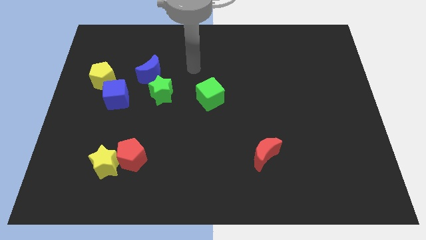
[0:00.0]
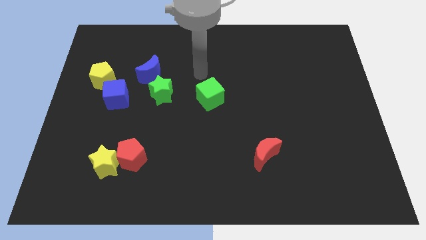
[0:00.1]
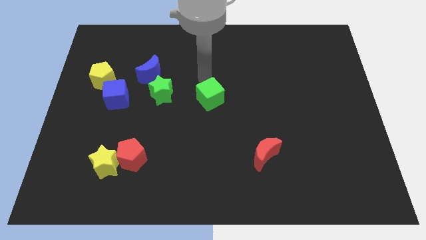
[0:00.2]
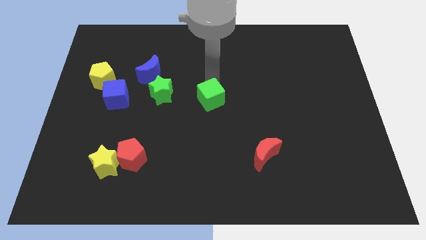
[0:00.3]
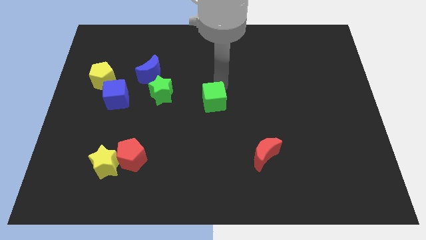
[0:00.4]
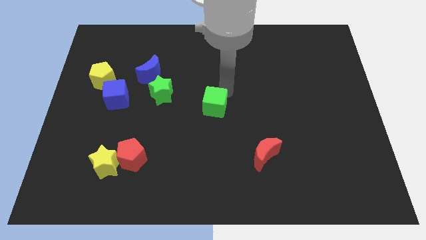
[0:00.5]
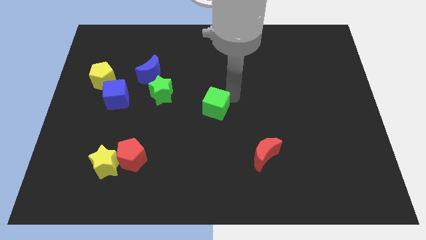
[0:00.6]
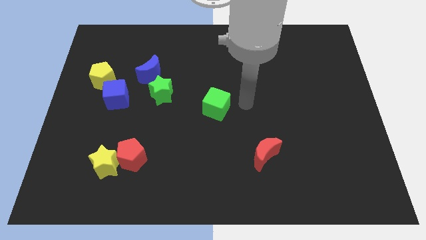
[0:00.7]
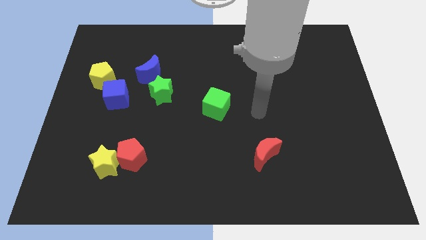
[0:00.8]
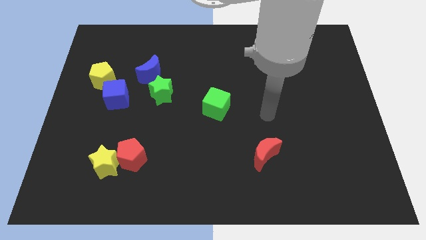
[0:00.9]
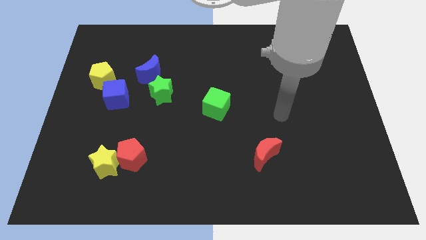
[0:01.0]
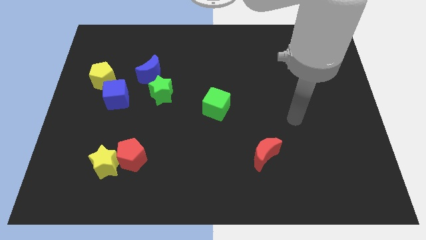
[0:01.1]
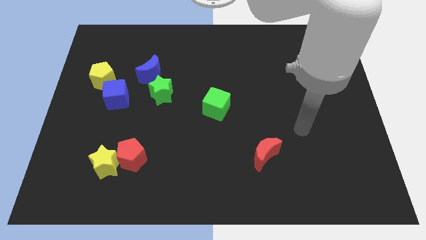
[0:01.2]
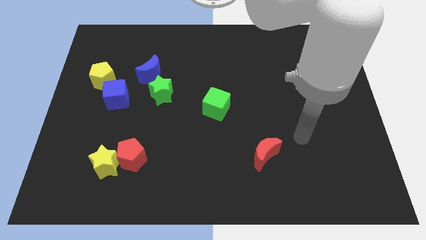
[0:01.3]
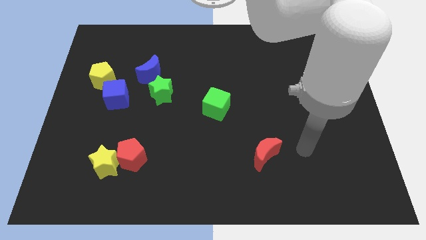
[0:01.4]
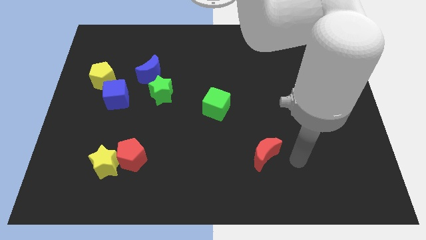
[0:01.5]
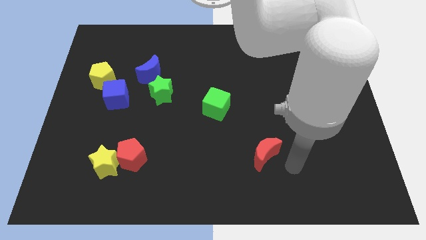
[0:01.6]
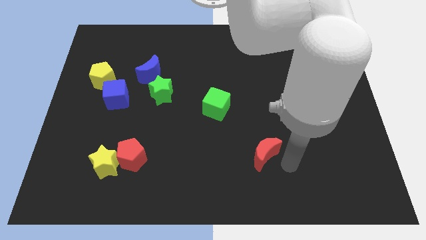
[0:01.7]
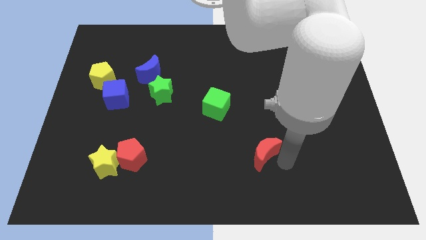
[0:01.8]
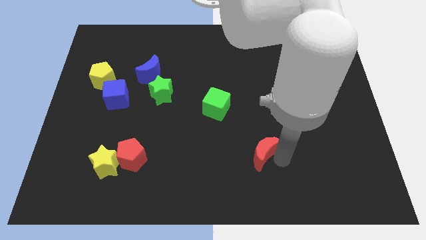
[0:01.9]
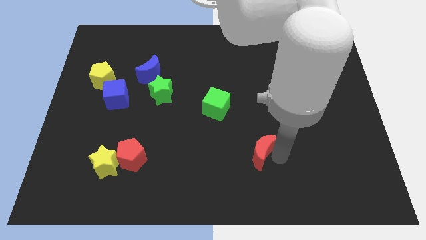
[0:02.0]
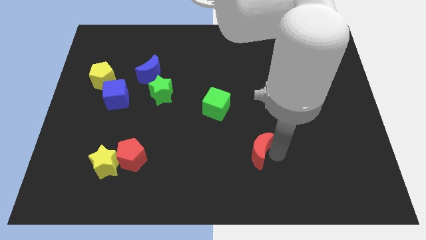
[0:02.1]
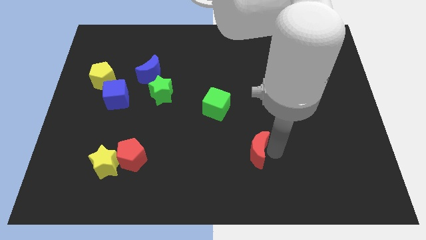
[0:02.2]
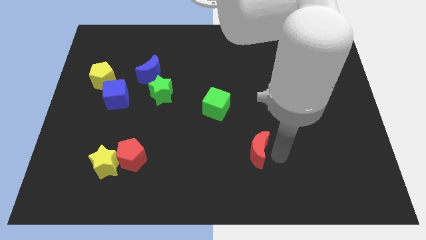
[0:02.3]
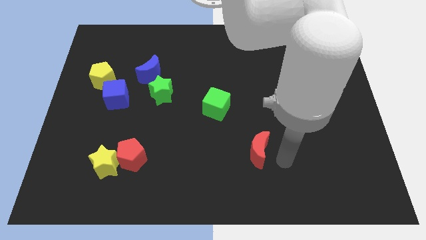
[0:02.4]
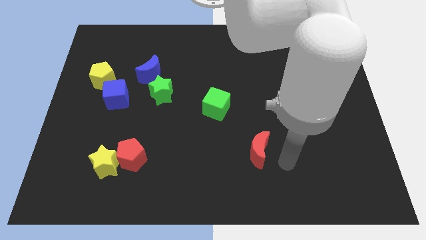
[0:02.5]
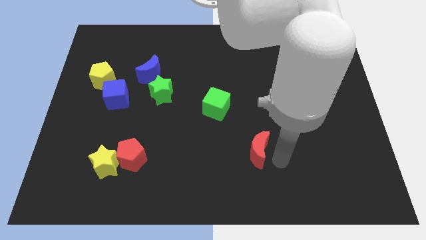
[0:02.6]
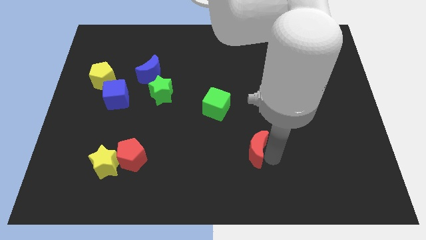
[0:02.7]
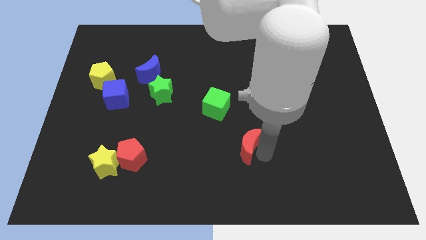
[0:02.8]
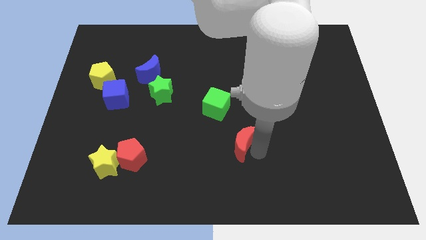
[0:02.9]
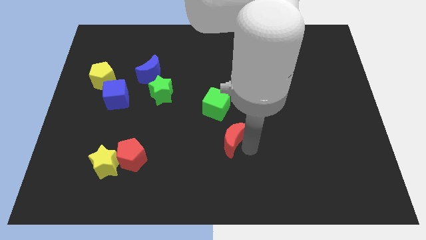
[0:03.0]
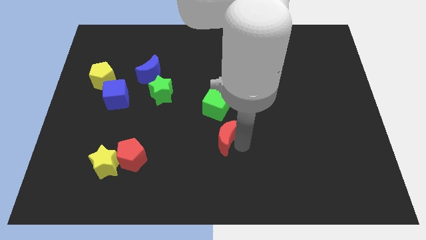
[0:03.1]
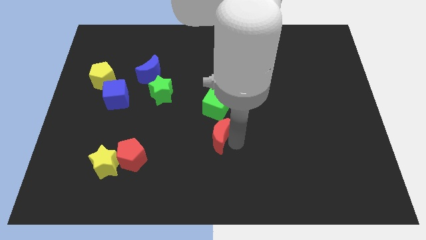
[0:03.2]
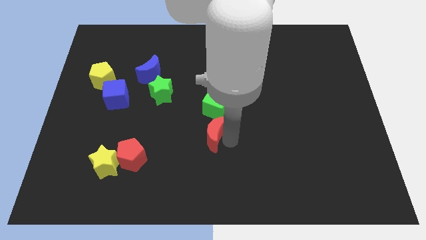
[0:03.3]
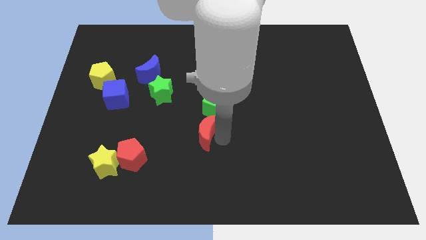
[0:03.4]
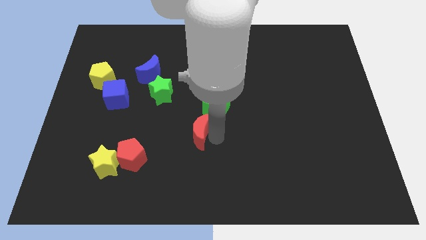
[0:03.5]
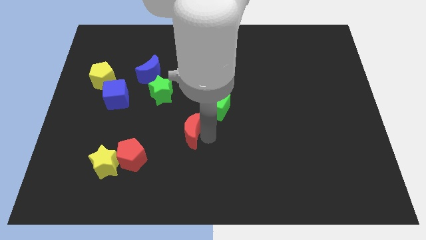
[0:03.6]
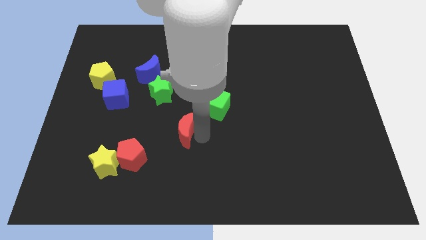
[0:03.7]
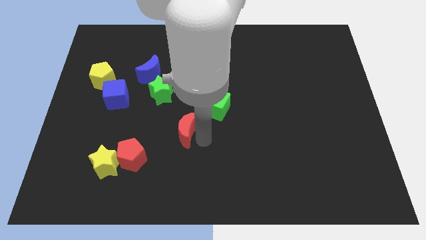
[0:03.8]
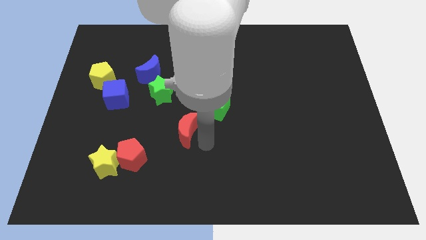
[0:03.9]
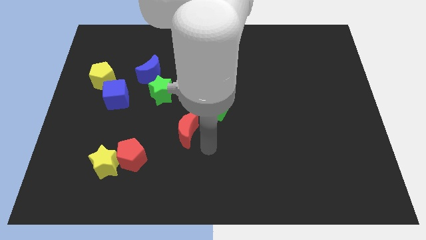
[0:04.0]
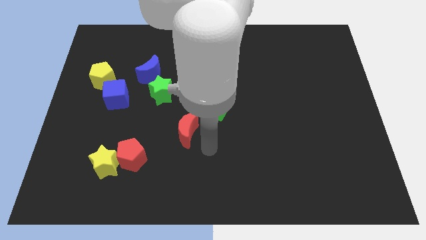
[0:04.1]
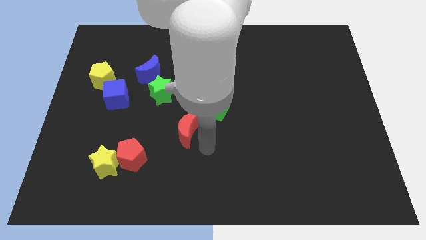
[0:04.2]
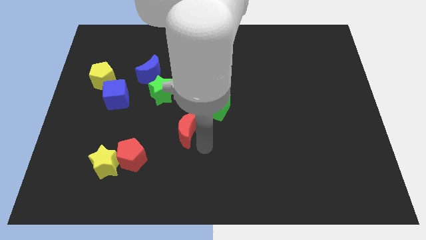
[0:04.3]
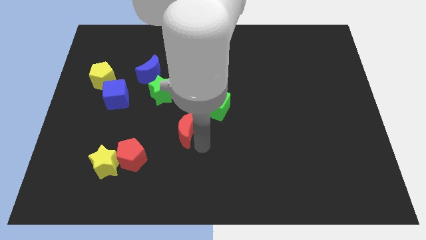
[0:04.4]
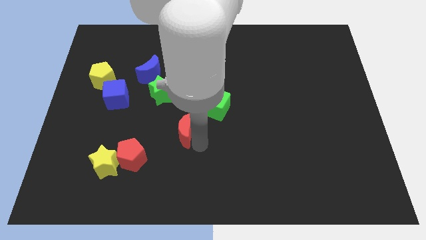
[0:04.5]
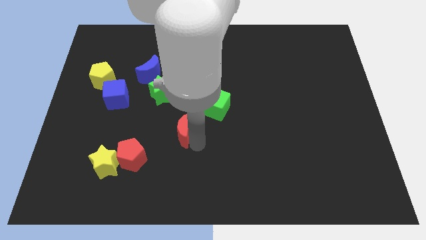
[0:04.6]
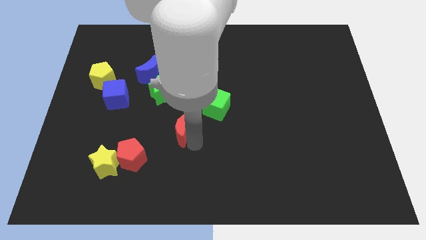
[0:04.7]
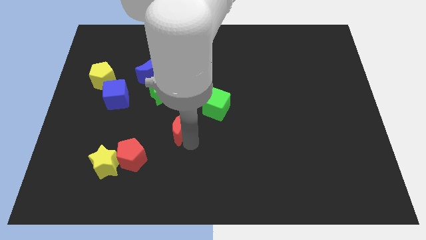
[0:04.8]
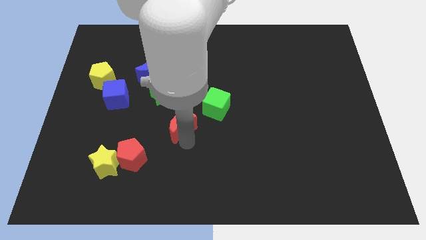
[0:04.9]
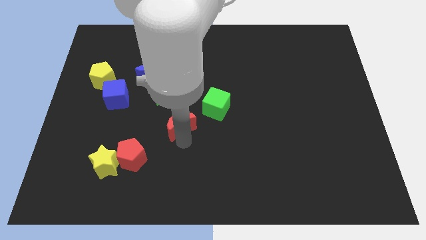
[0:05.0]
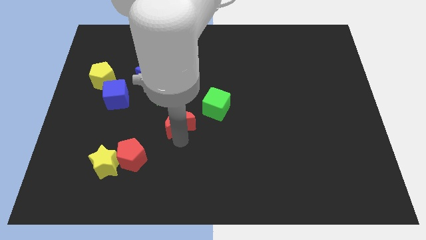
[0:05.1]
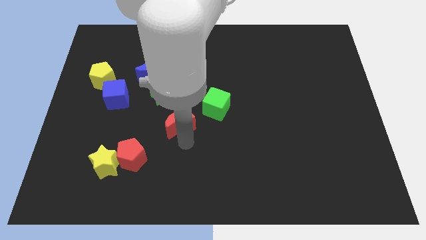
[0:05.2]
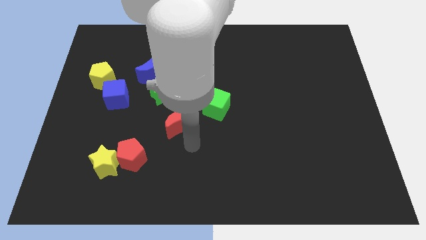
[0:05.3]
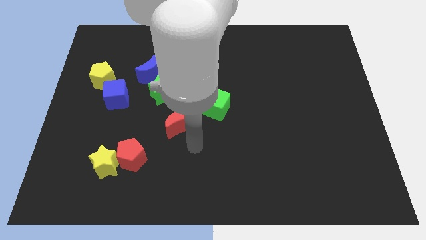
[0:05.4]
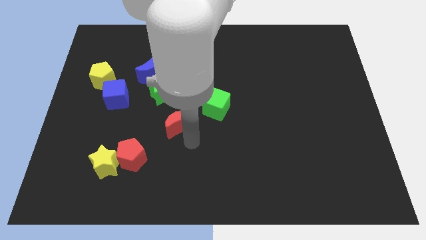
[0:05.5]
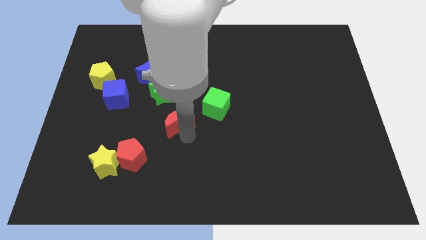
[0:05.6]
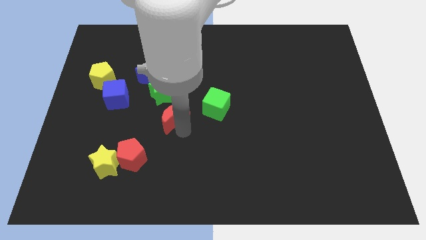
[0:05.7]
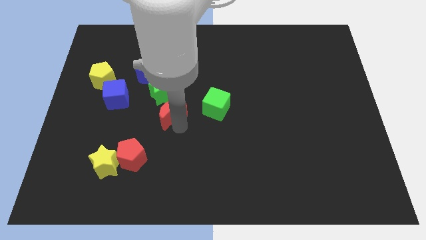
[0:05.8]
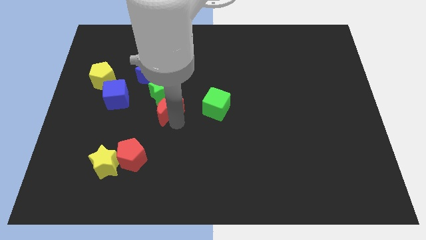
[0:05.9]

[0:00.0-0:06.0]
push the red moon next to the green star

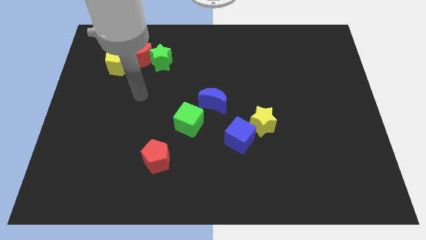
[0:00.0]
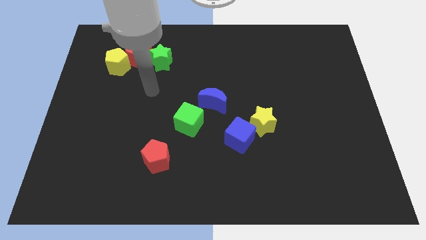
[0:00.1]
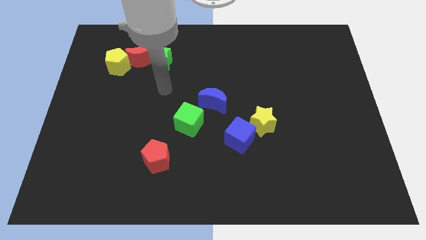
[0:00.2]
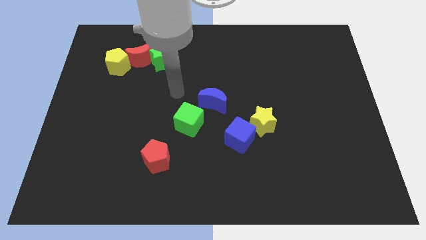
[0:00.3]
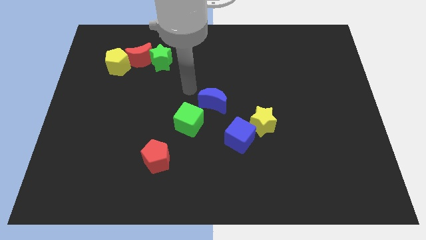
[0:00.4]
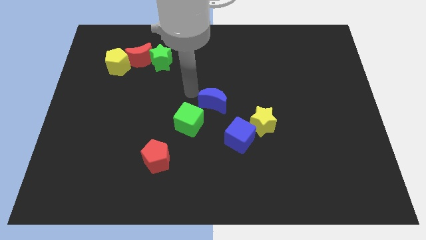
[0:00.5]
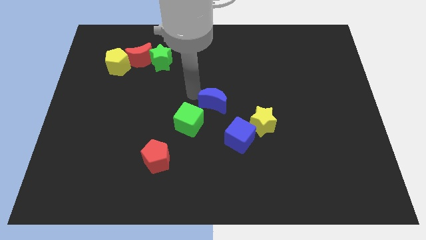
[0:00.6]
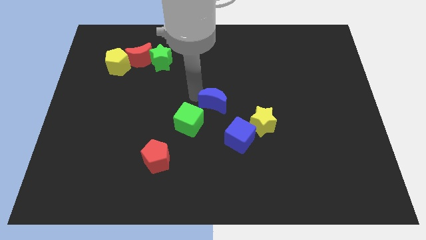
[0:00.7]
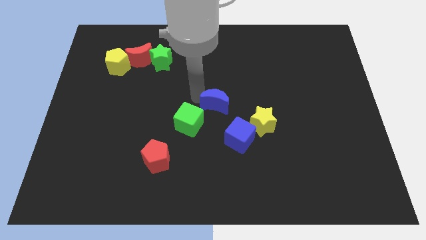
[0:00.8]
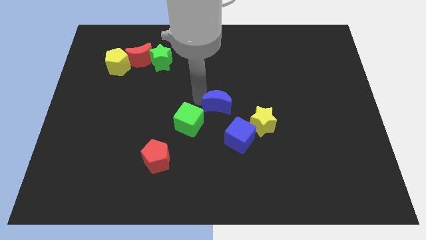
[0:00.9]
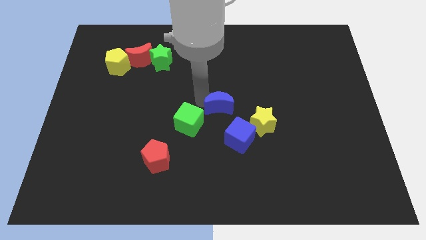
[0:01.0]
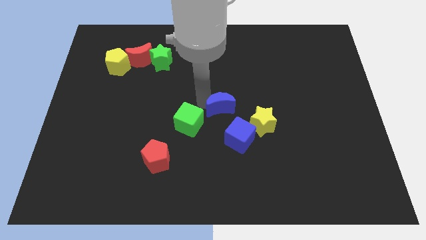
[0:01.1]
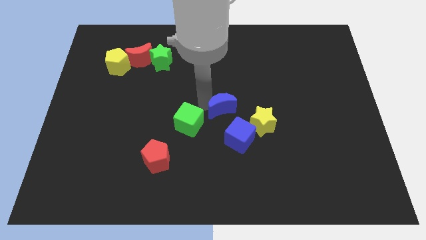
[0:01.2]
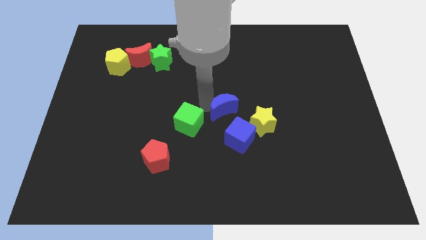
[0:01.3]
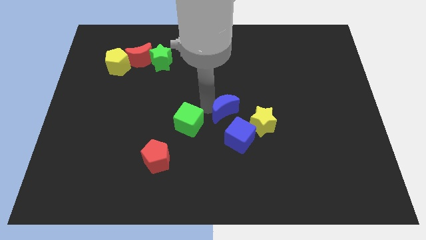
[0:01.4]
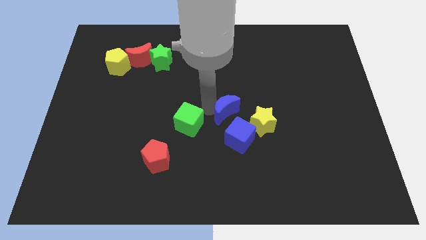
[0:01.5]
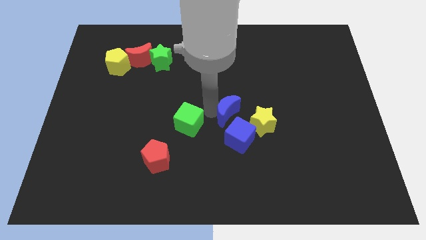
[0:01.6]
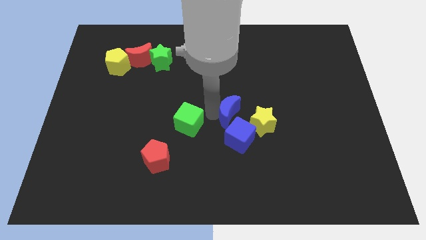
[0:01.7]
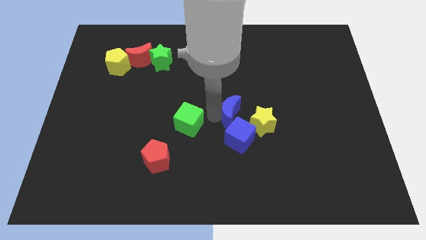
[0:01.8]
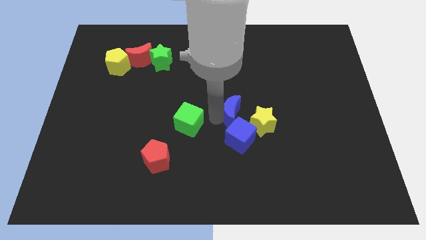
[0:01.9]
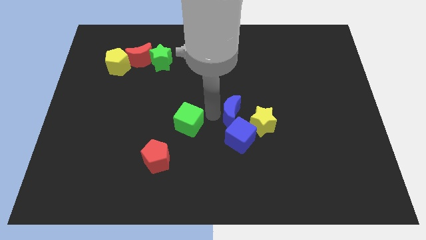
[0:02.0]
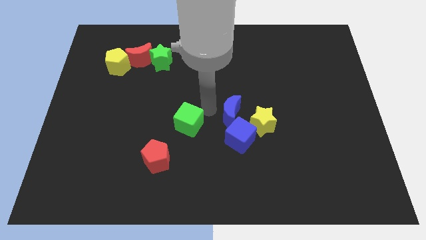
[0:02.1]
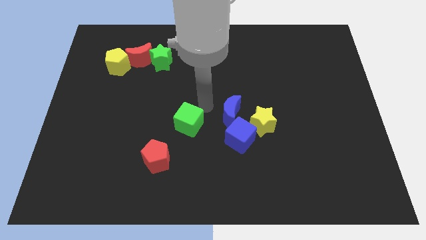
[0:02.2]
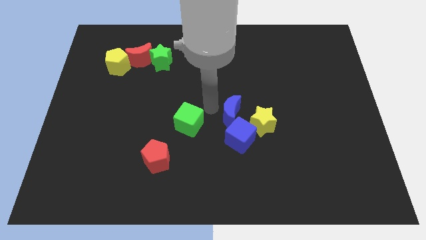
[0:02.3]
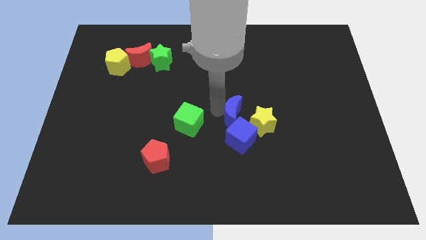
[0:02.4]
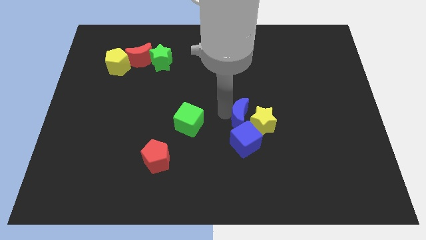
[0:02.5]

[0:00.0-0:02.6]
push the blue moon close to the yellow star
